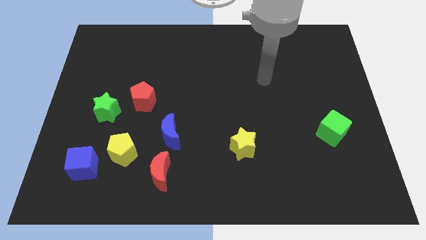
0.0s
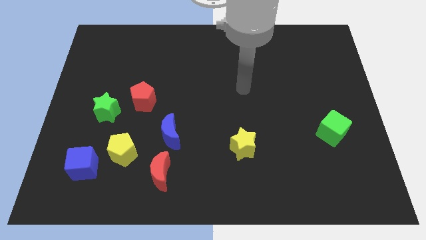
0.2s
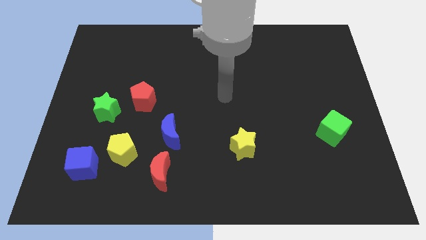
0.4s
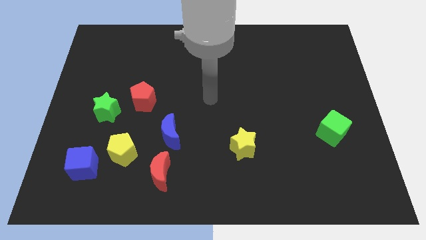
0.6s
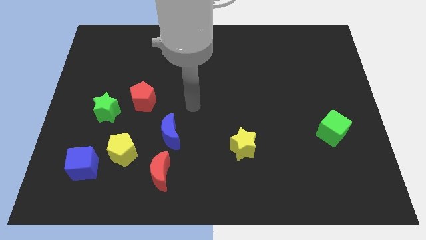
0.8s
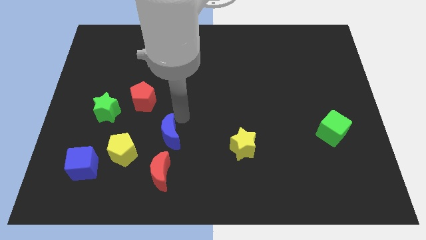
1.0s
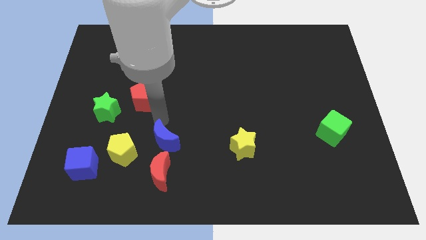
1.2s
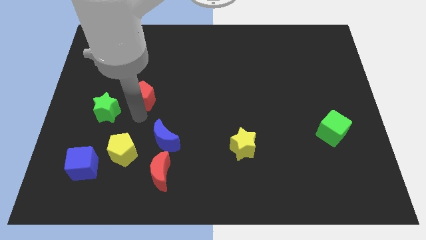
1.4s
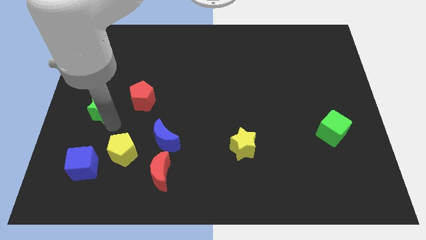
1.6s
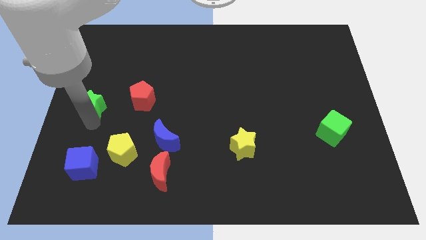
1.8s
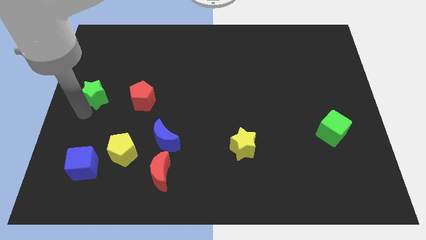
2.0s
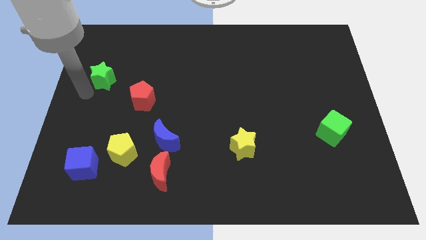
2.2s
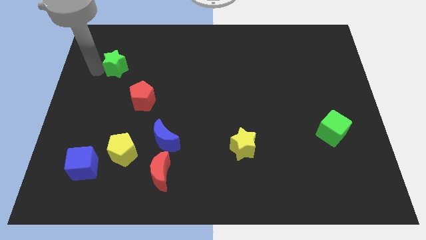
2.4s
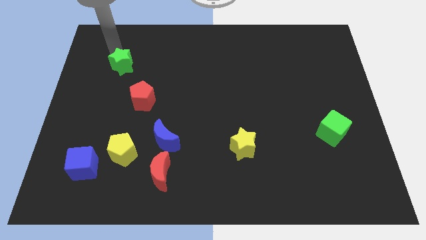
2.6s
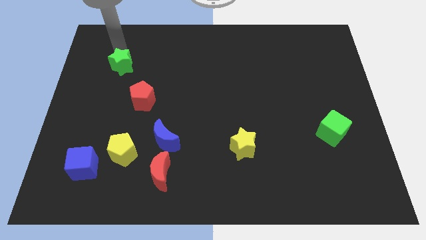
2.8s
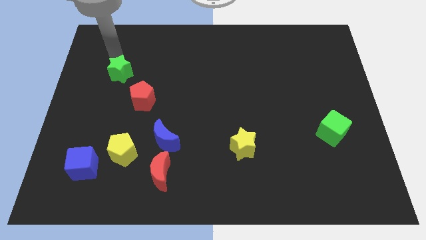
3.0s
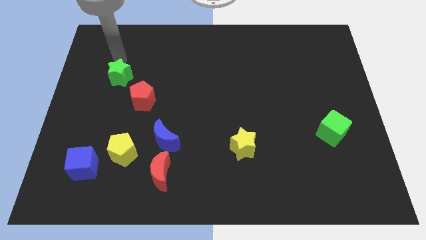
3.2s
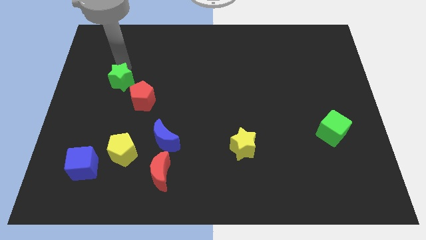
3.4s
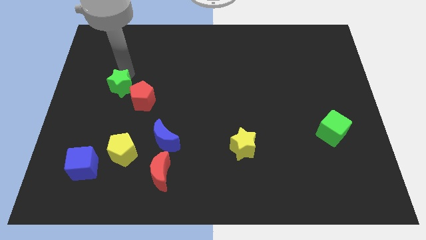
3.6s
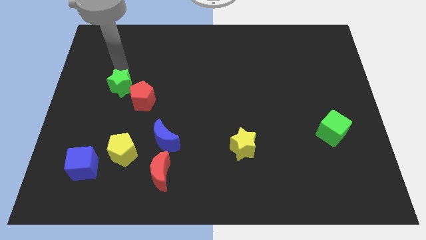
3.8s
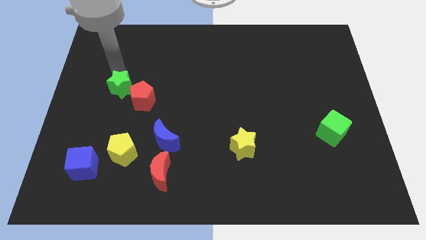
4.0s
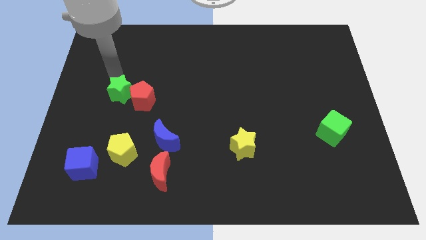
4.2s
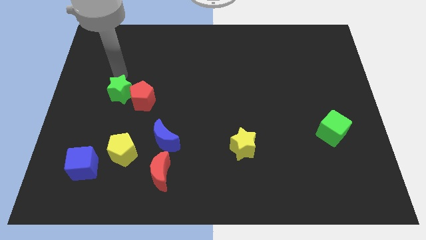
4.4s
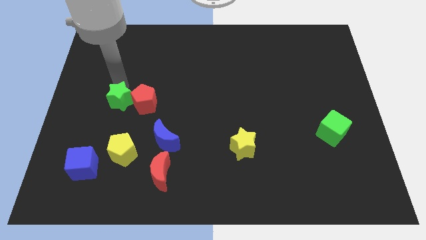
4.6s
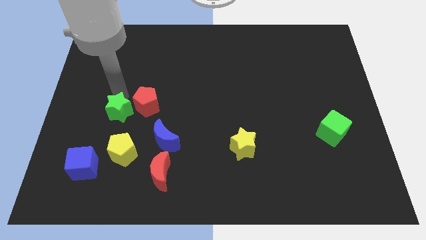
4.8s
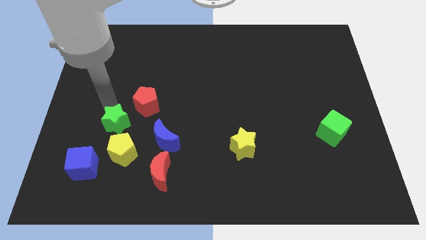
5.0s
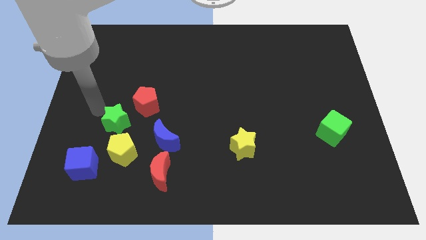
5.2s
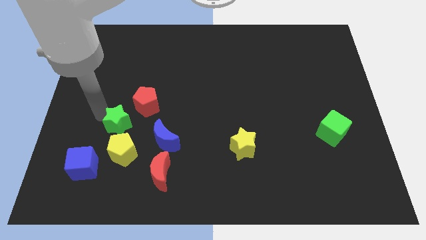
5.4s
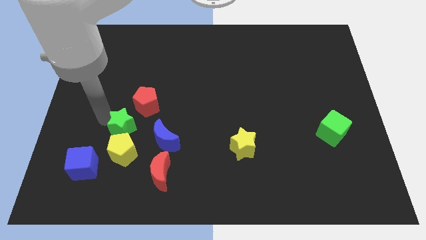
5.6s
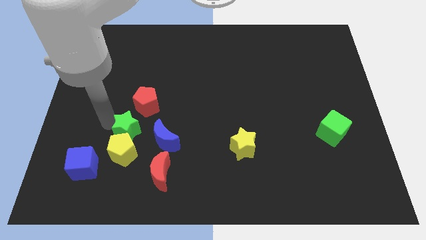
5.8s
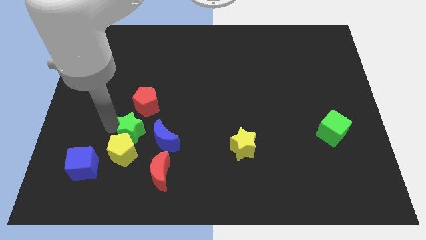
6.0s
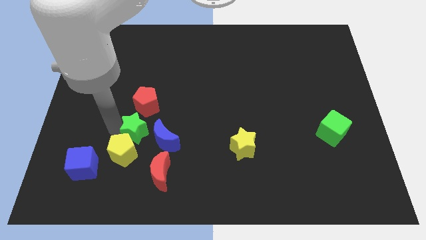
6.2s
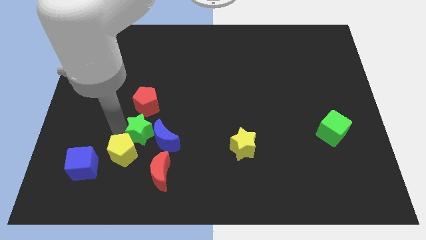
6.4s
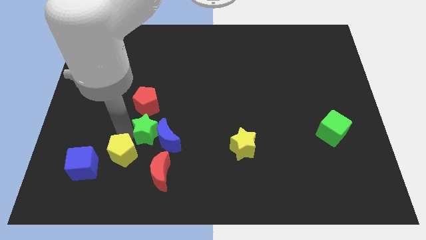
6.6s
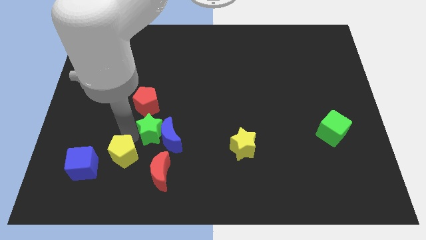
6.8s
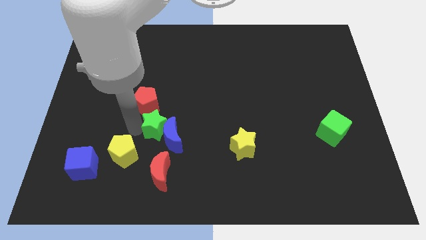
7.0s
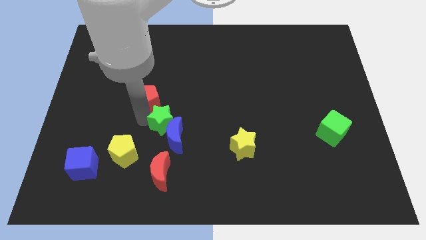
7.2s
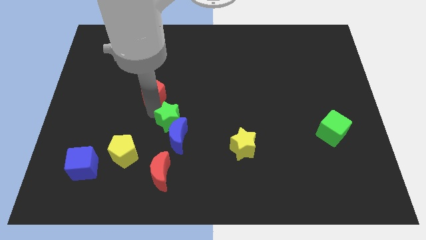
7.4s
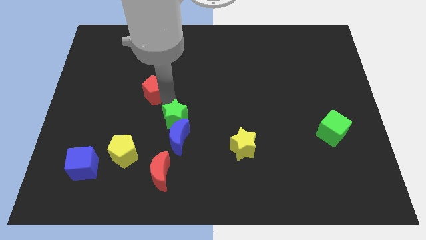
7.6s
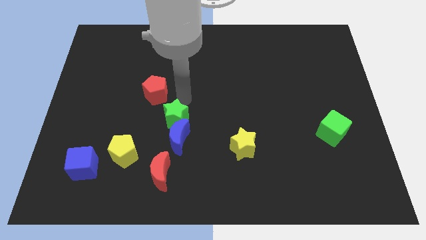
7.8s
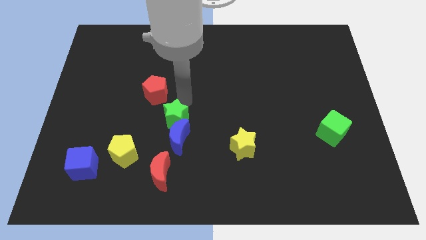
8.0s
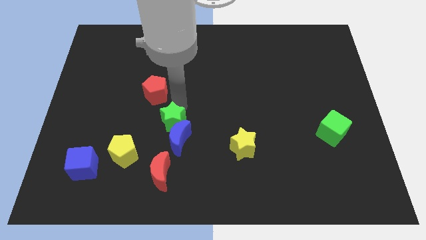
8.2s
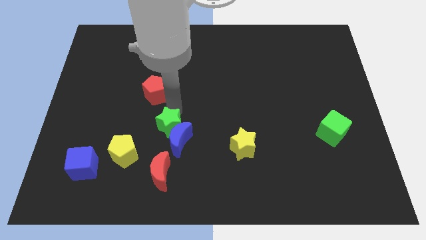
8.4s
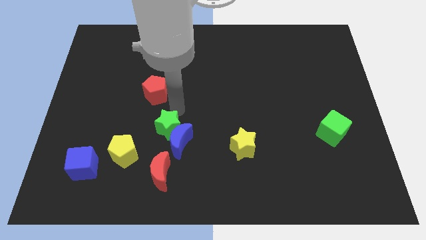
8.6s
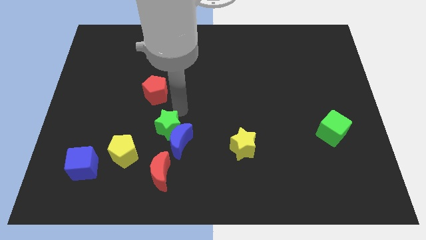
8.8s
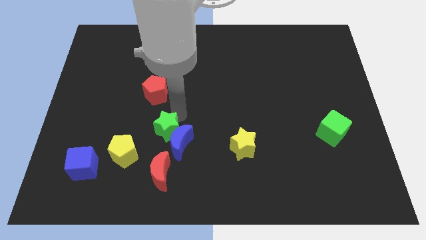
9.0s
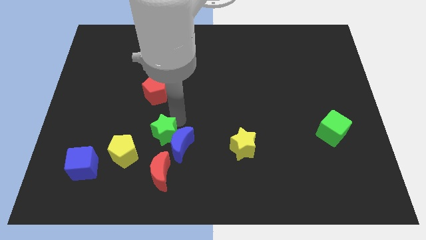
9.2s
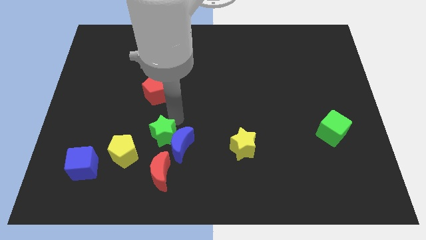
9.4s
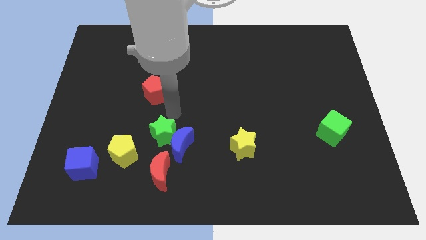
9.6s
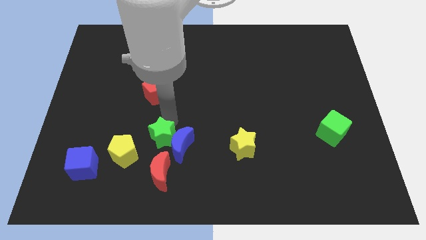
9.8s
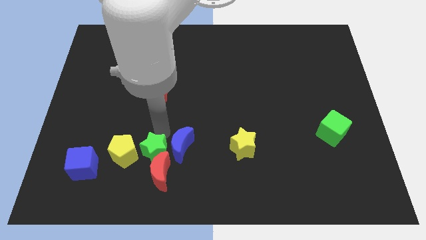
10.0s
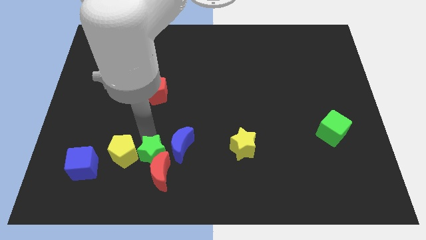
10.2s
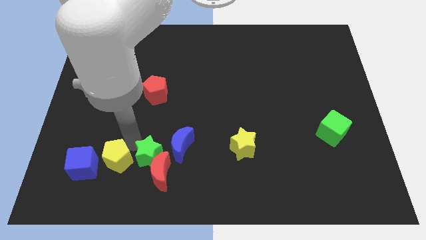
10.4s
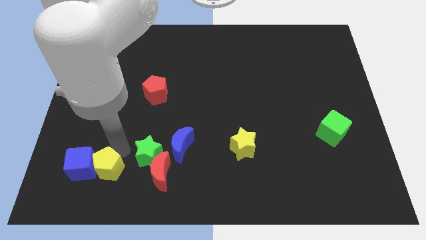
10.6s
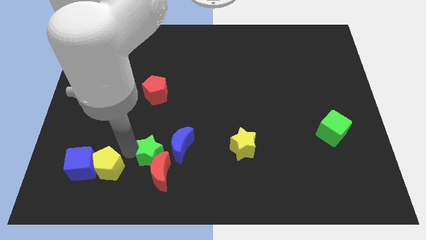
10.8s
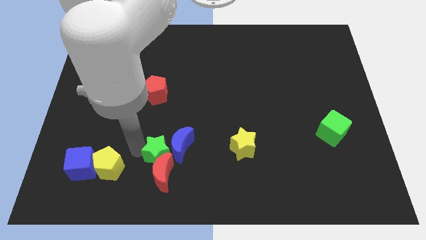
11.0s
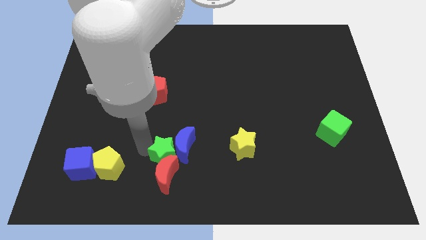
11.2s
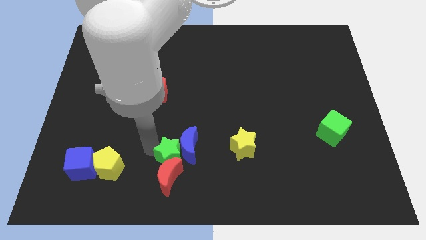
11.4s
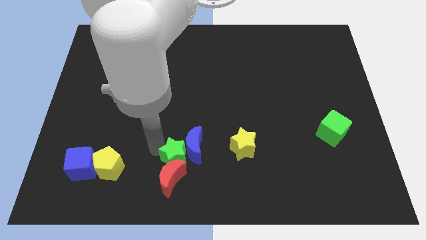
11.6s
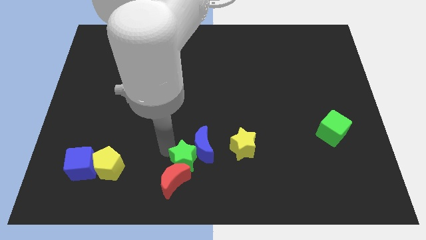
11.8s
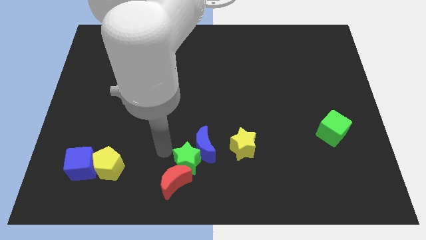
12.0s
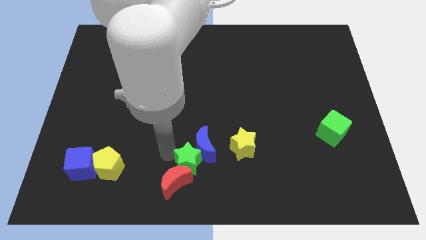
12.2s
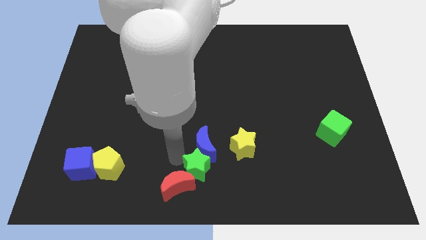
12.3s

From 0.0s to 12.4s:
push the green star to the right of the red moon
